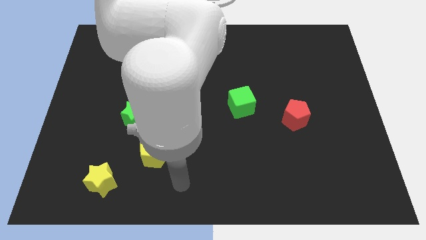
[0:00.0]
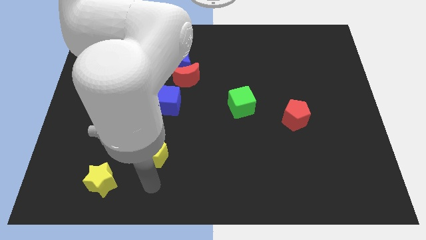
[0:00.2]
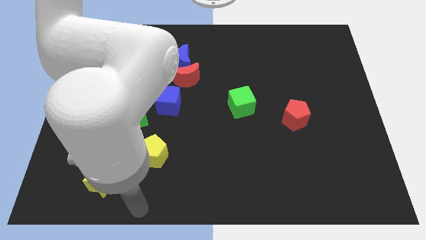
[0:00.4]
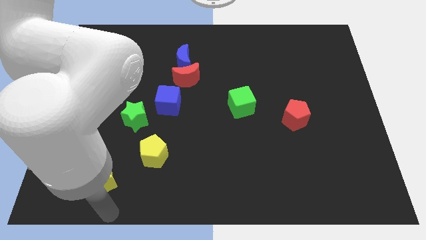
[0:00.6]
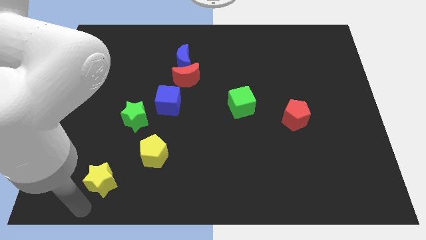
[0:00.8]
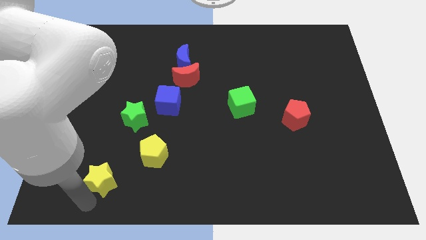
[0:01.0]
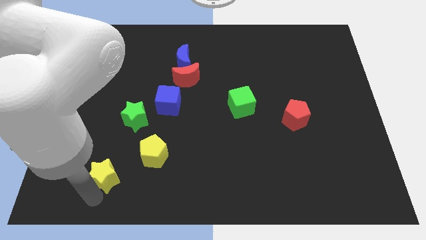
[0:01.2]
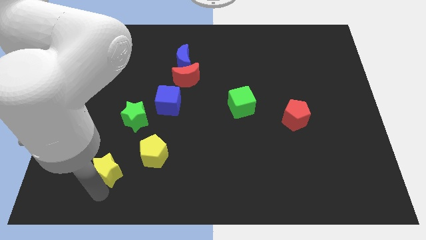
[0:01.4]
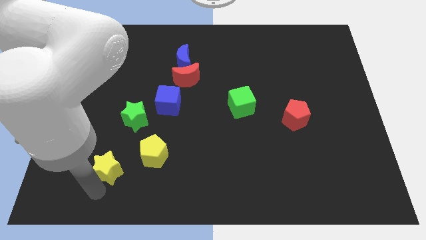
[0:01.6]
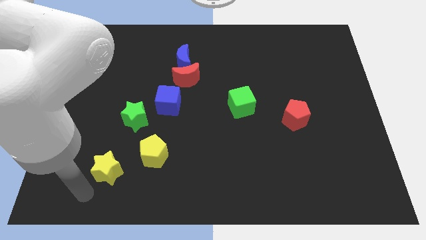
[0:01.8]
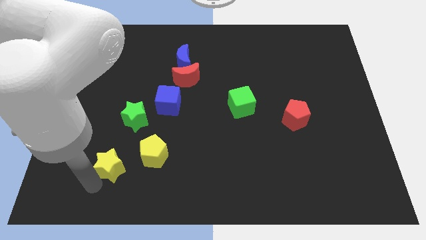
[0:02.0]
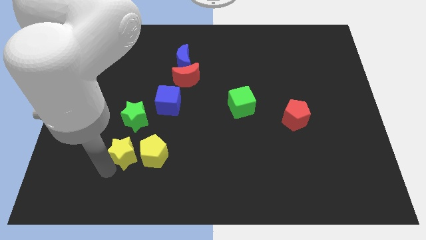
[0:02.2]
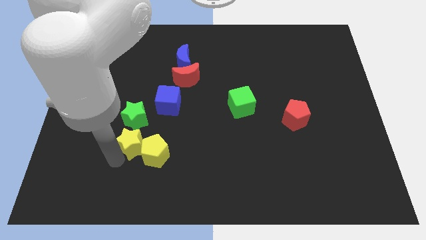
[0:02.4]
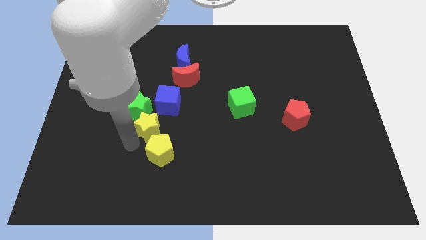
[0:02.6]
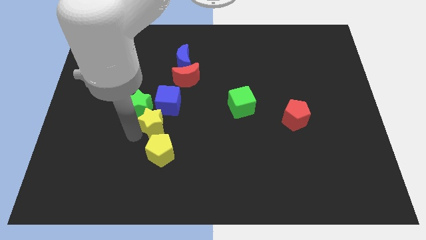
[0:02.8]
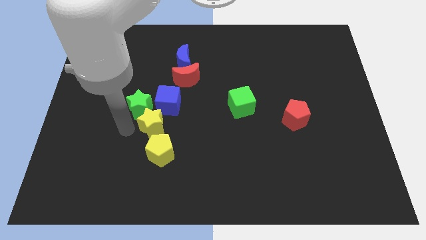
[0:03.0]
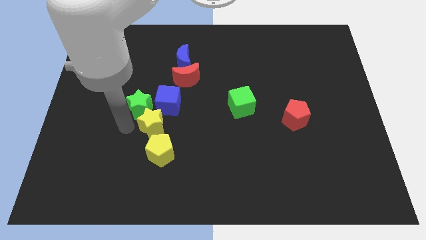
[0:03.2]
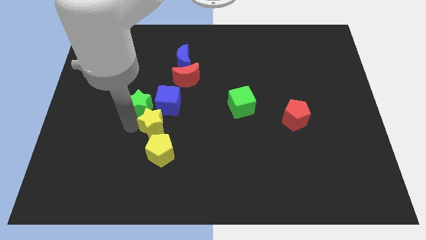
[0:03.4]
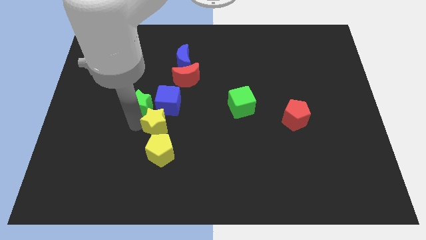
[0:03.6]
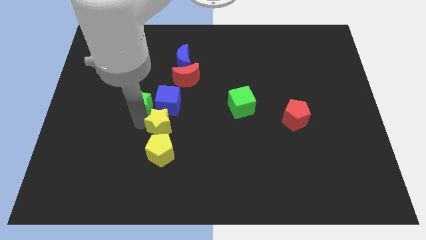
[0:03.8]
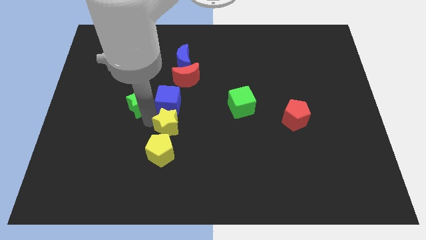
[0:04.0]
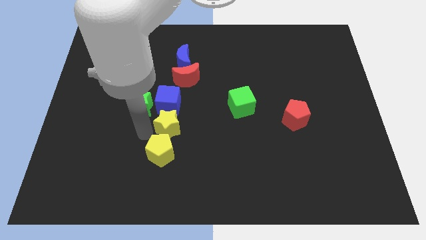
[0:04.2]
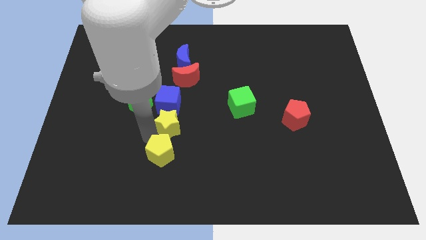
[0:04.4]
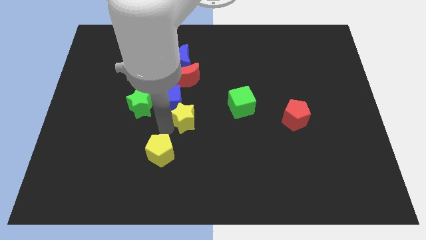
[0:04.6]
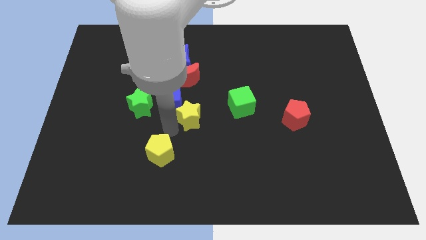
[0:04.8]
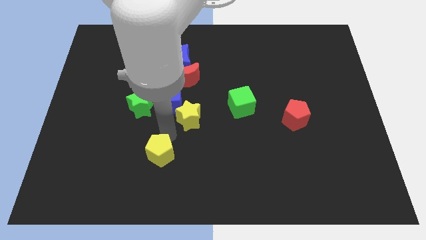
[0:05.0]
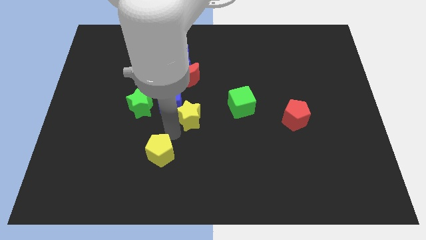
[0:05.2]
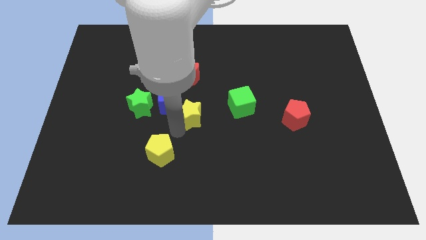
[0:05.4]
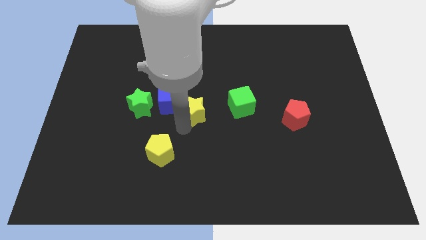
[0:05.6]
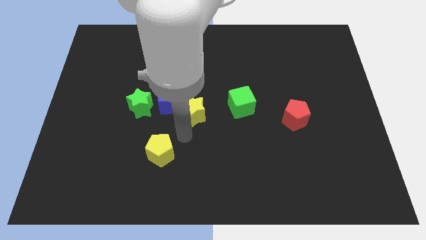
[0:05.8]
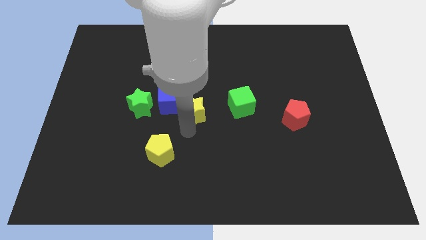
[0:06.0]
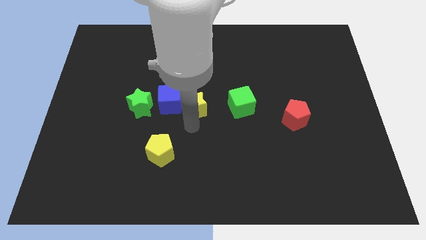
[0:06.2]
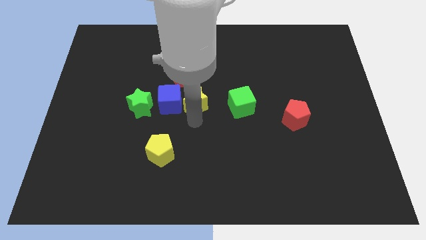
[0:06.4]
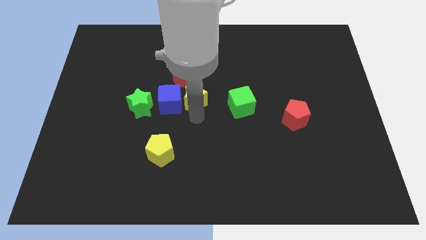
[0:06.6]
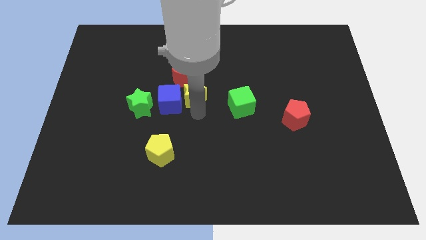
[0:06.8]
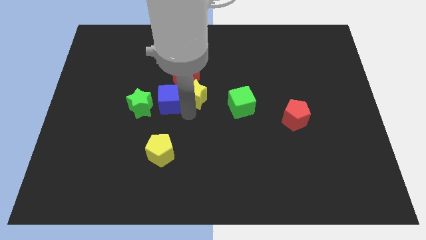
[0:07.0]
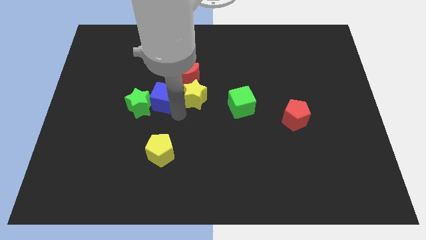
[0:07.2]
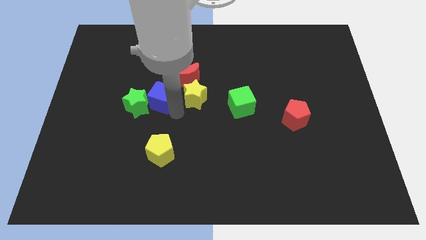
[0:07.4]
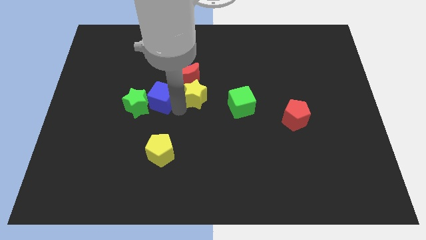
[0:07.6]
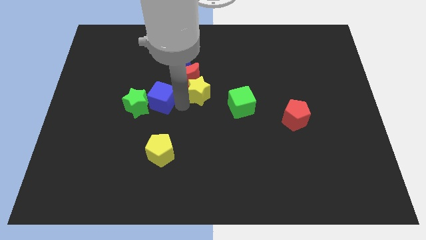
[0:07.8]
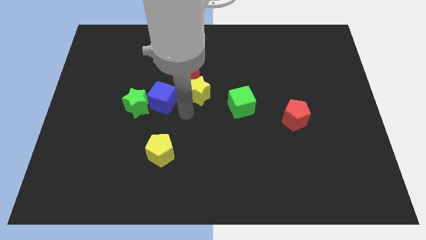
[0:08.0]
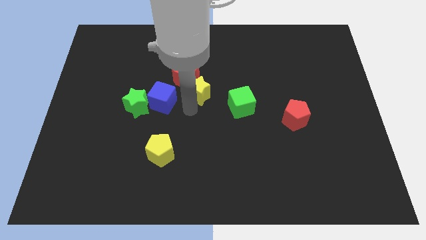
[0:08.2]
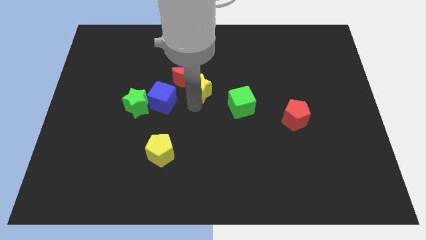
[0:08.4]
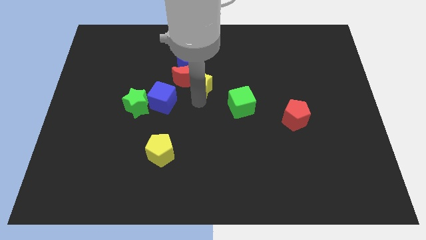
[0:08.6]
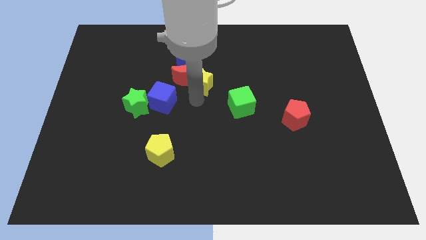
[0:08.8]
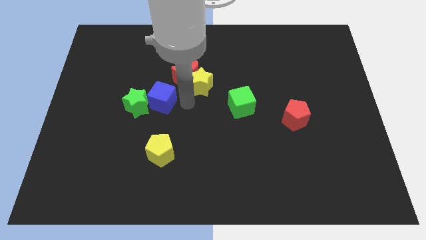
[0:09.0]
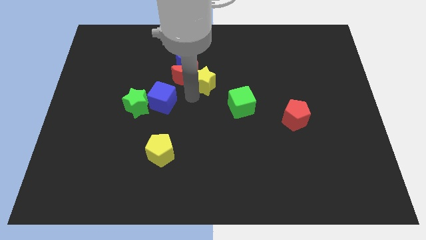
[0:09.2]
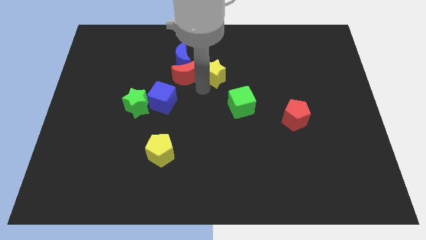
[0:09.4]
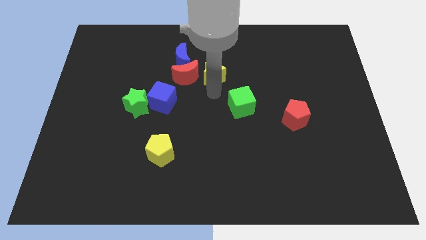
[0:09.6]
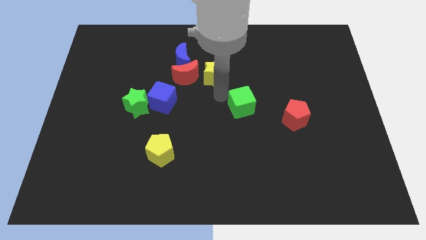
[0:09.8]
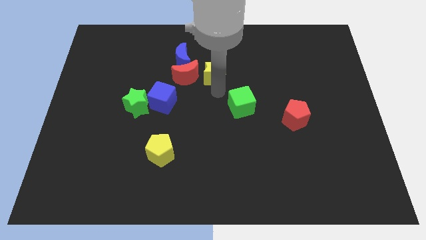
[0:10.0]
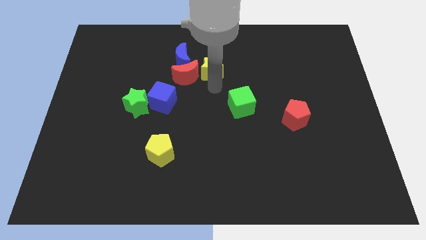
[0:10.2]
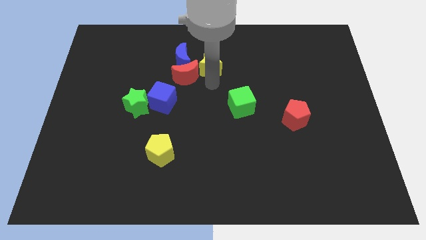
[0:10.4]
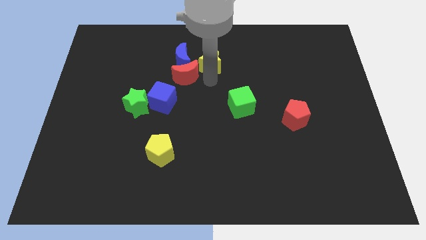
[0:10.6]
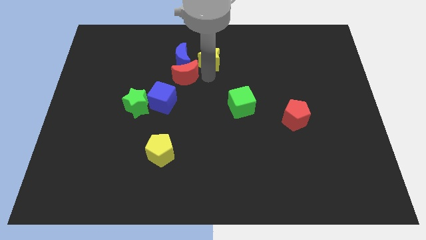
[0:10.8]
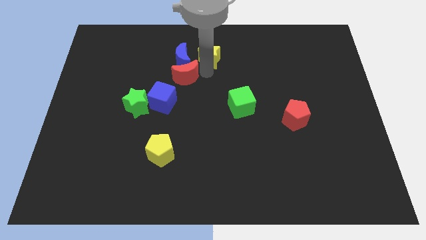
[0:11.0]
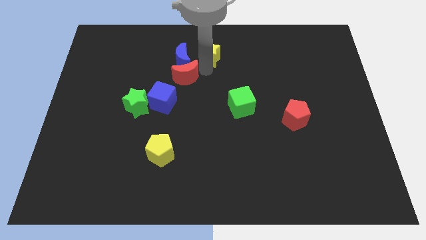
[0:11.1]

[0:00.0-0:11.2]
push the yellow star to the top side
